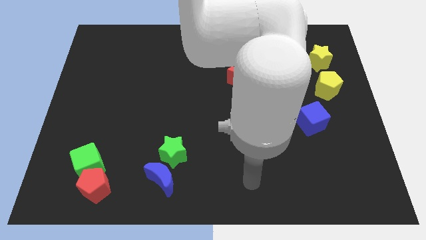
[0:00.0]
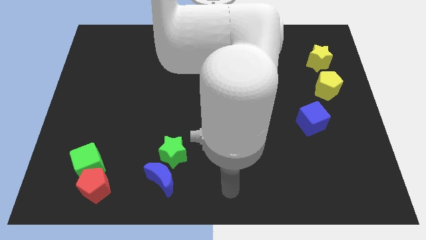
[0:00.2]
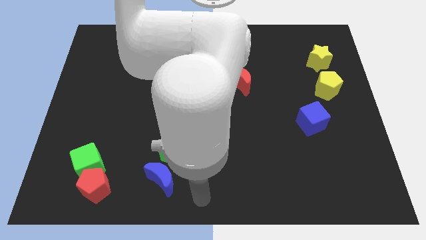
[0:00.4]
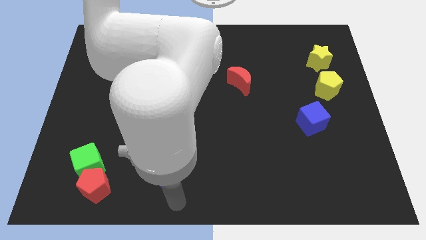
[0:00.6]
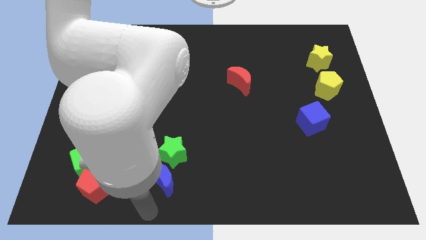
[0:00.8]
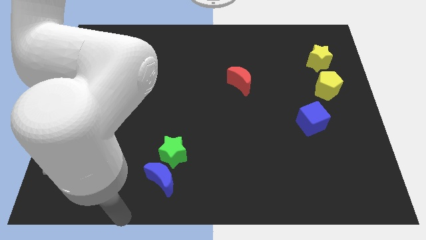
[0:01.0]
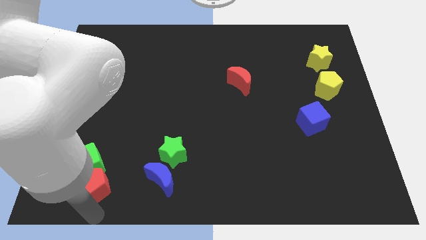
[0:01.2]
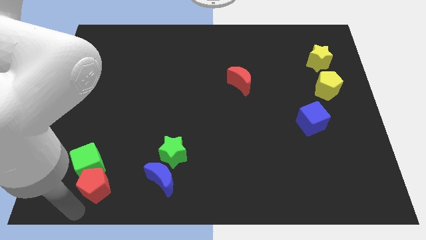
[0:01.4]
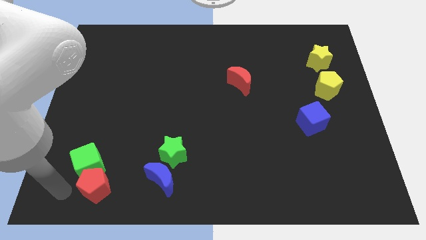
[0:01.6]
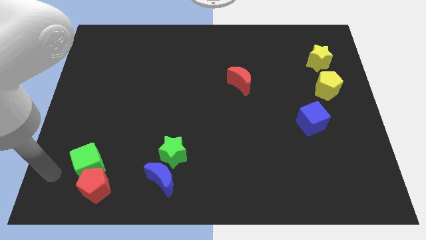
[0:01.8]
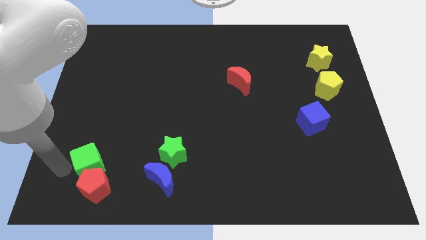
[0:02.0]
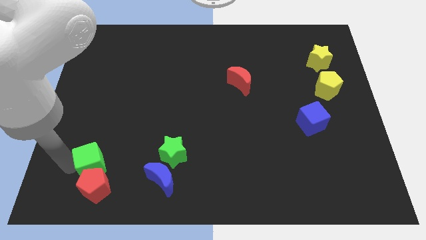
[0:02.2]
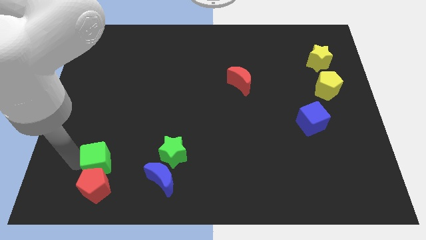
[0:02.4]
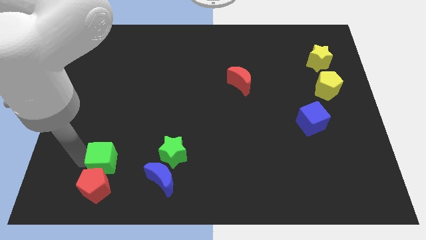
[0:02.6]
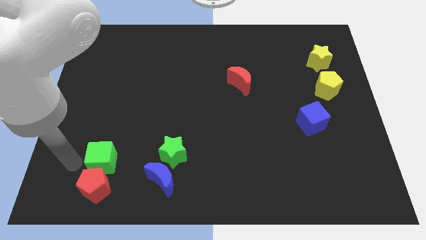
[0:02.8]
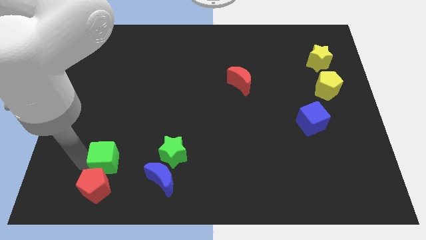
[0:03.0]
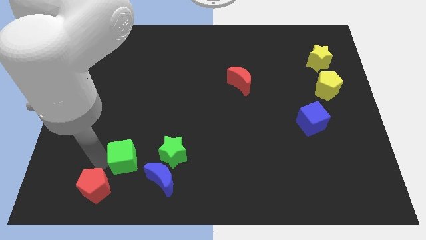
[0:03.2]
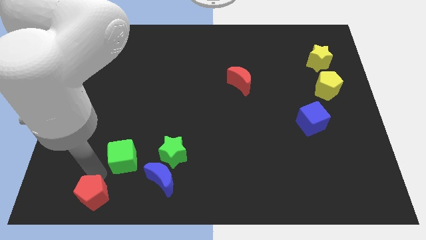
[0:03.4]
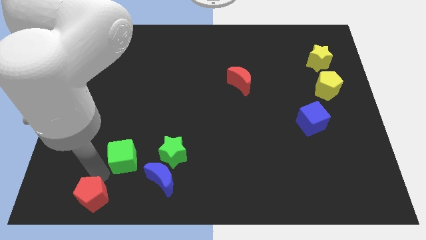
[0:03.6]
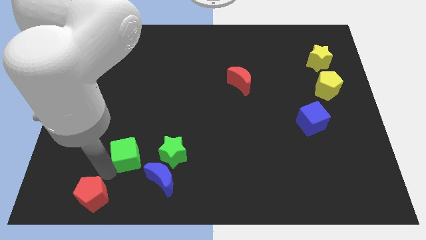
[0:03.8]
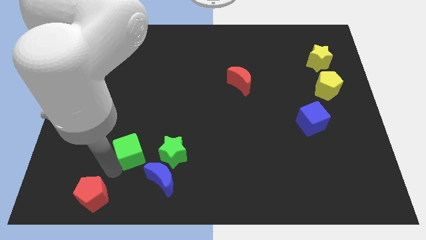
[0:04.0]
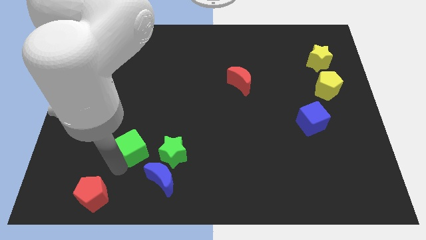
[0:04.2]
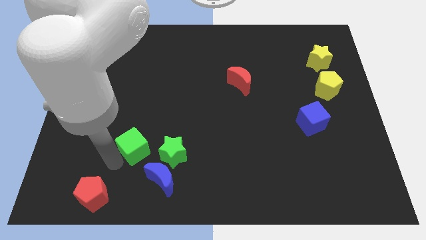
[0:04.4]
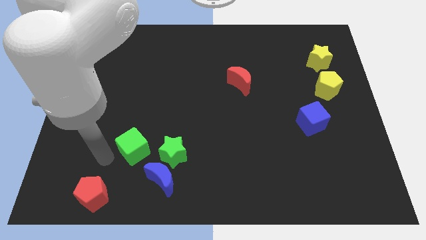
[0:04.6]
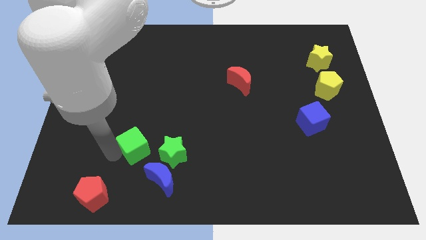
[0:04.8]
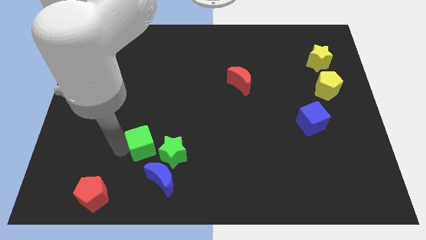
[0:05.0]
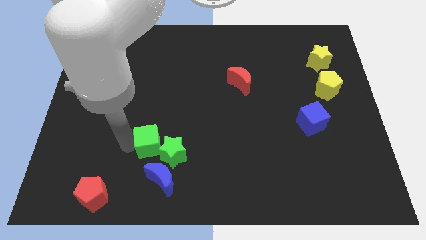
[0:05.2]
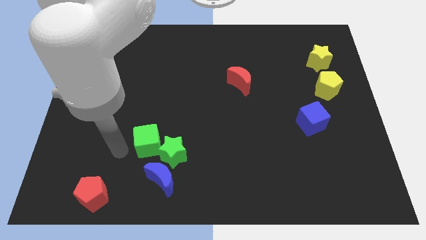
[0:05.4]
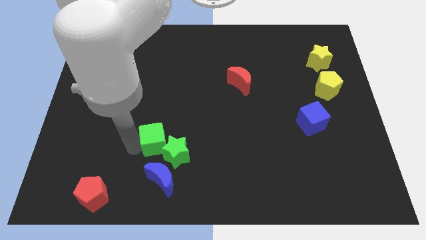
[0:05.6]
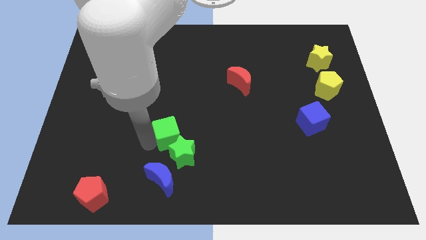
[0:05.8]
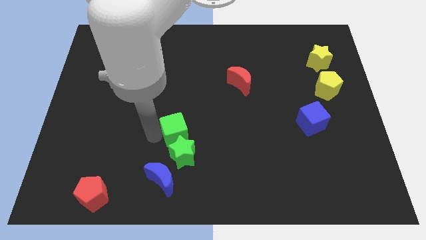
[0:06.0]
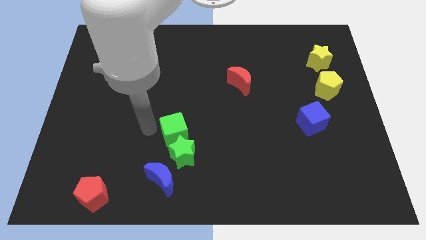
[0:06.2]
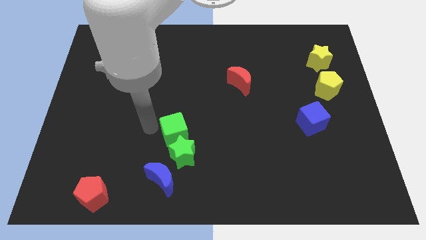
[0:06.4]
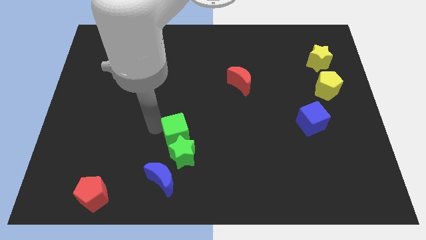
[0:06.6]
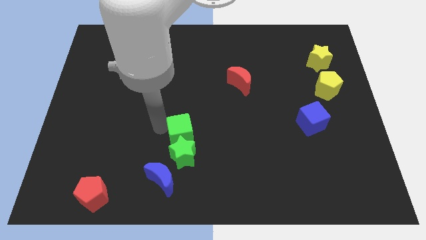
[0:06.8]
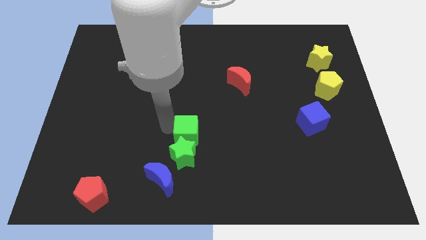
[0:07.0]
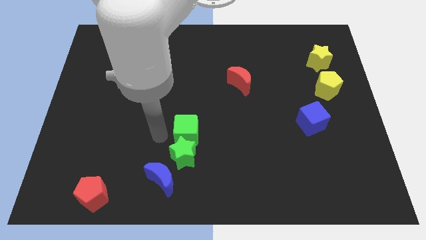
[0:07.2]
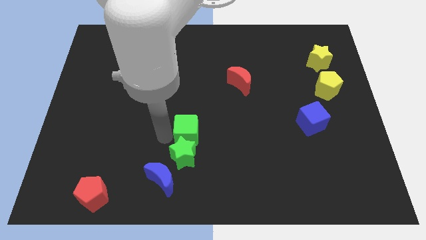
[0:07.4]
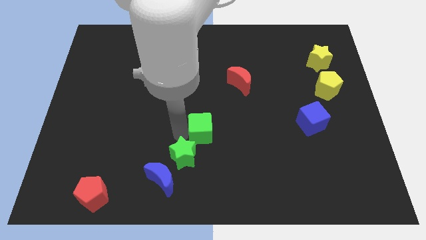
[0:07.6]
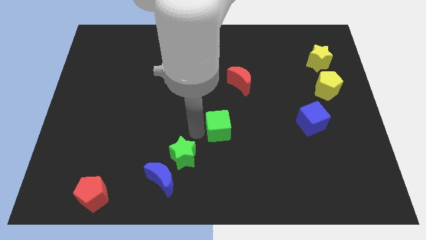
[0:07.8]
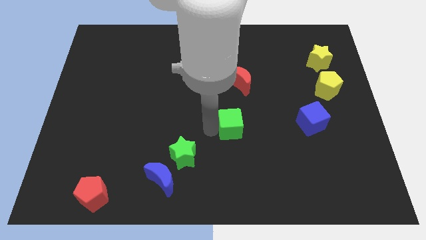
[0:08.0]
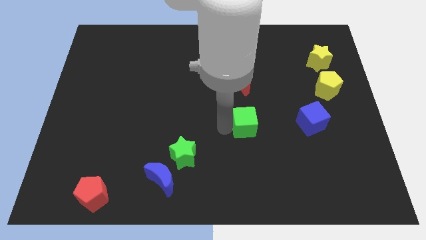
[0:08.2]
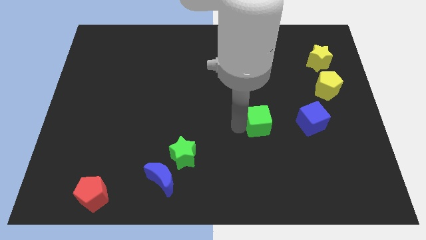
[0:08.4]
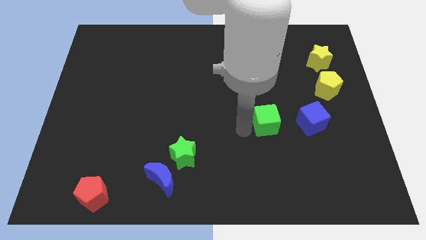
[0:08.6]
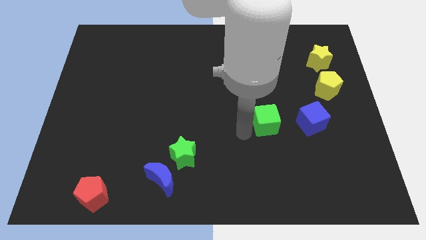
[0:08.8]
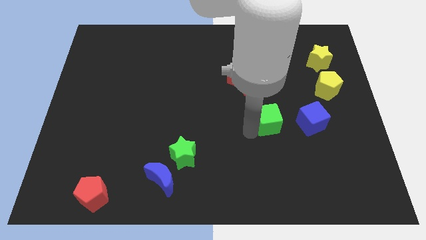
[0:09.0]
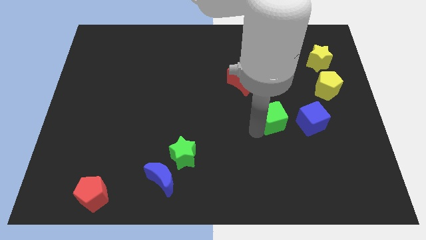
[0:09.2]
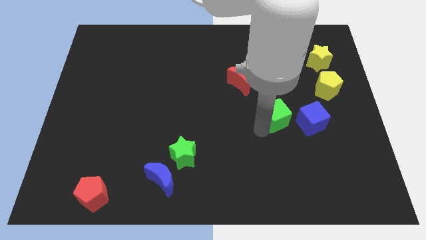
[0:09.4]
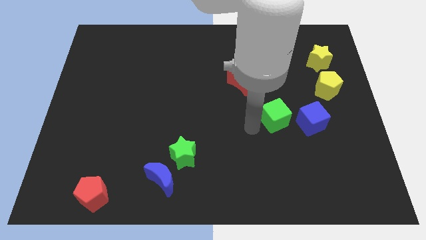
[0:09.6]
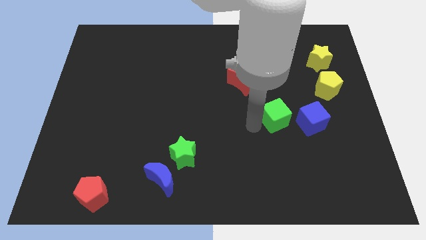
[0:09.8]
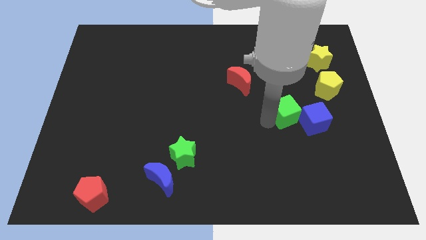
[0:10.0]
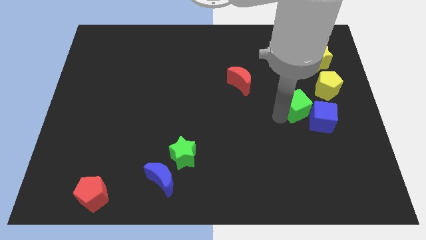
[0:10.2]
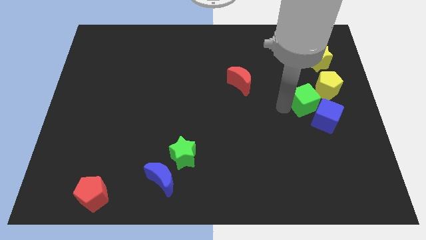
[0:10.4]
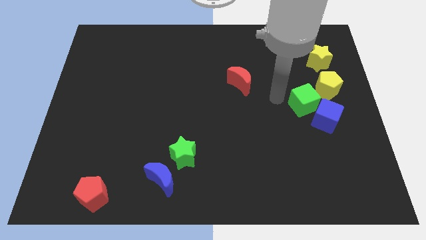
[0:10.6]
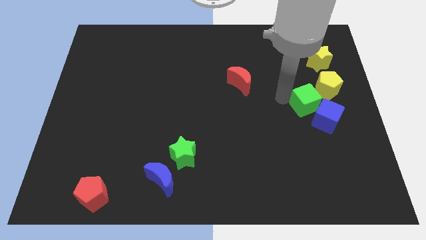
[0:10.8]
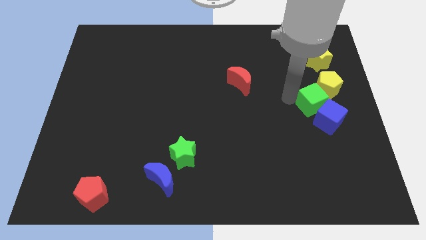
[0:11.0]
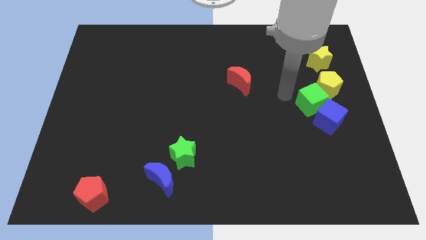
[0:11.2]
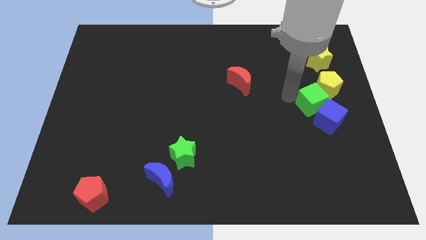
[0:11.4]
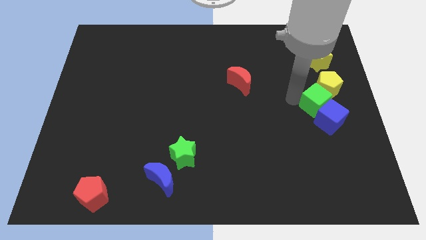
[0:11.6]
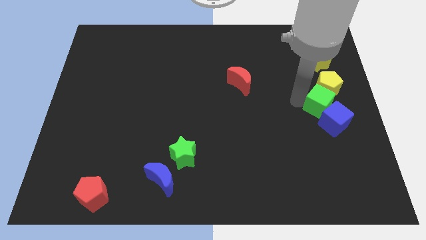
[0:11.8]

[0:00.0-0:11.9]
slide the green cube to the right side
